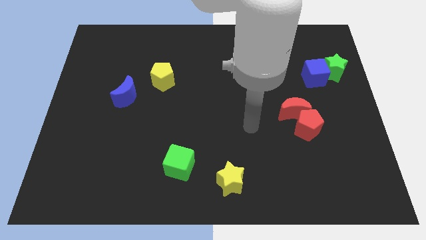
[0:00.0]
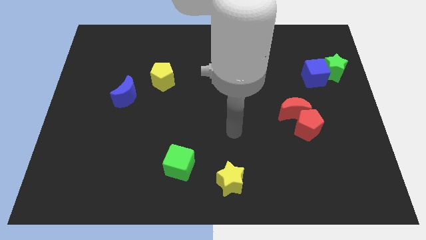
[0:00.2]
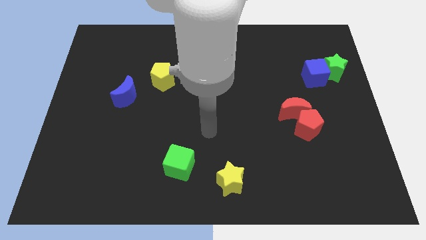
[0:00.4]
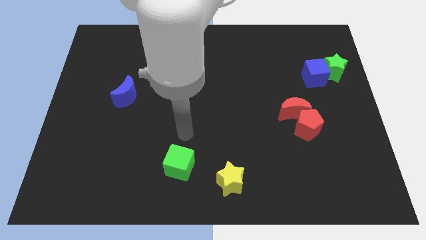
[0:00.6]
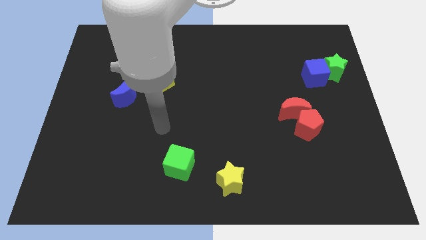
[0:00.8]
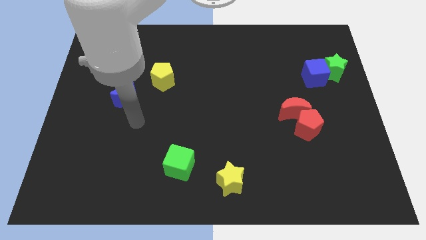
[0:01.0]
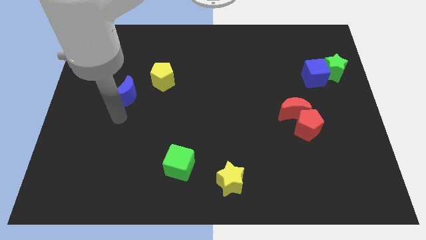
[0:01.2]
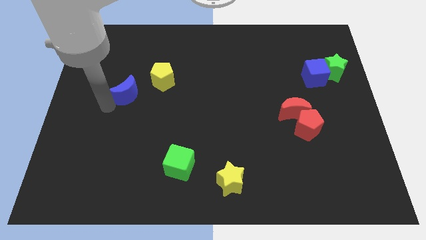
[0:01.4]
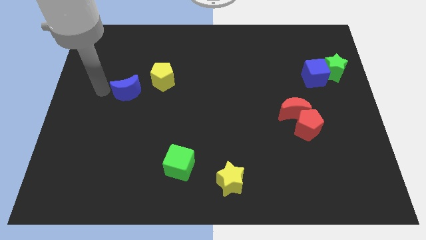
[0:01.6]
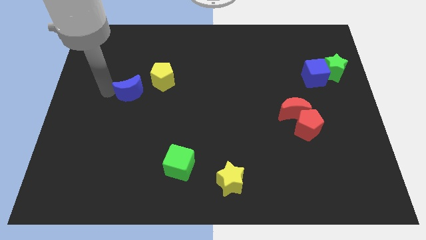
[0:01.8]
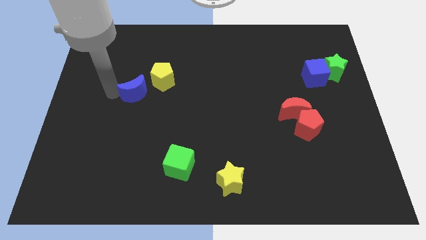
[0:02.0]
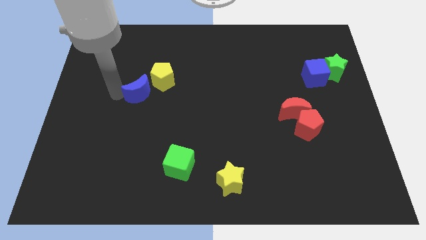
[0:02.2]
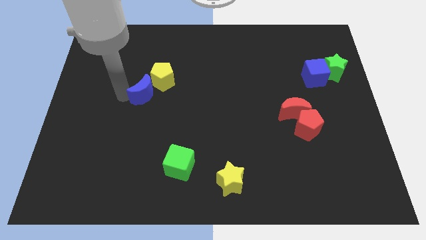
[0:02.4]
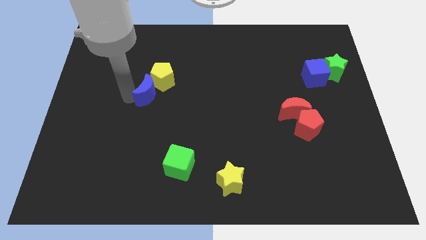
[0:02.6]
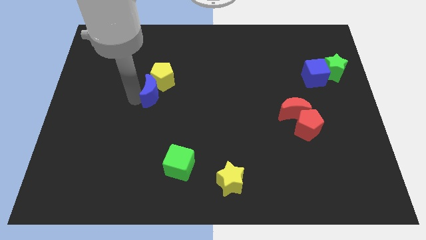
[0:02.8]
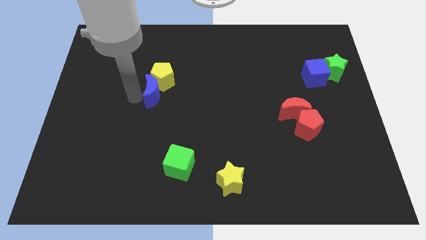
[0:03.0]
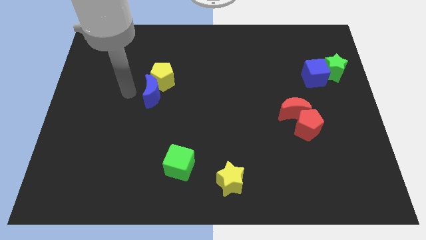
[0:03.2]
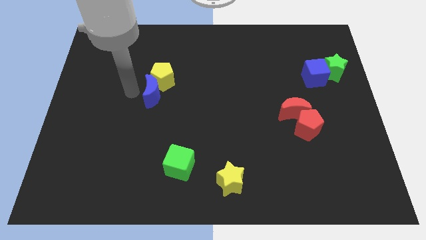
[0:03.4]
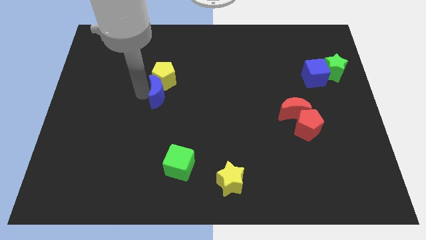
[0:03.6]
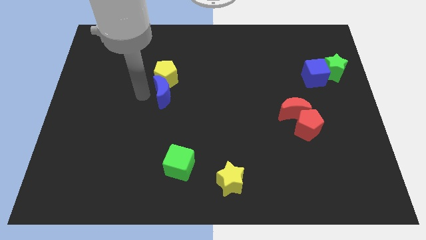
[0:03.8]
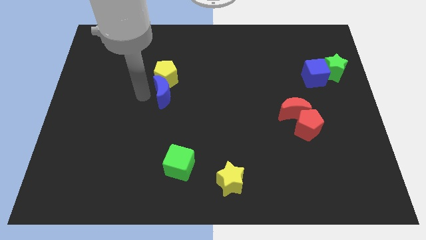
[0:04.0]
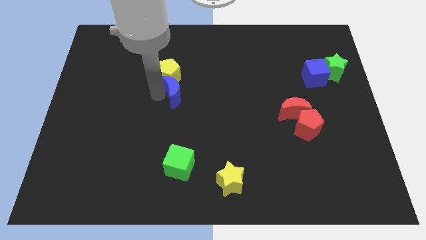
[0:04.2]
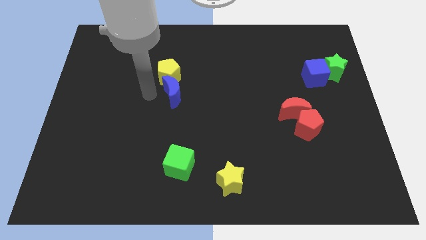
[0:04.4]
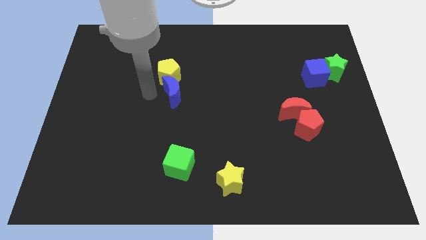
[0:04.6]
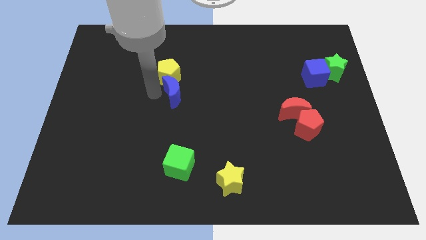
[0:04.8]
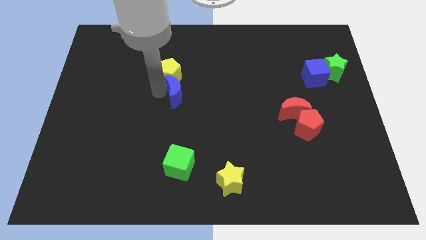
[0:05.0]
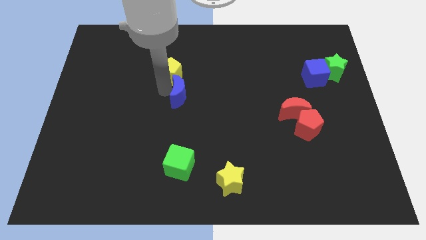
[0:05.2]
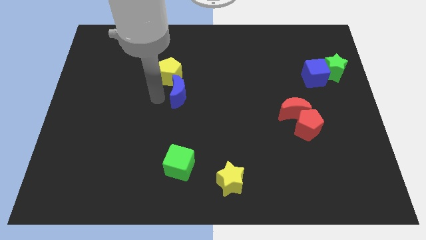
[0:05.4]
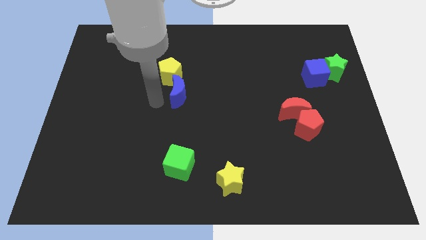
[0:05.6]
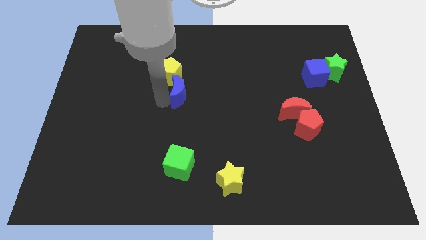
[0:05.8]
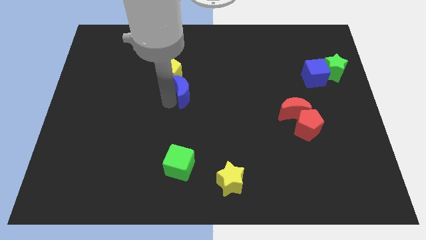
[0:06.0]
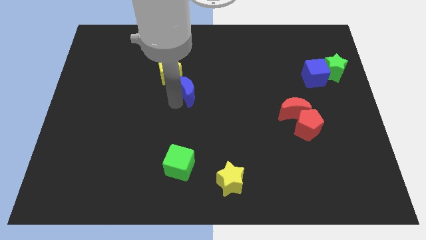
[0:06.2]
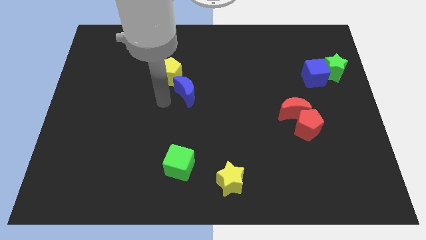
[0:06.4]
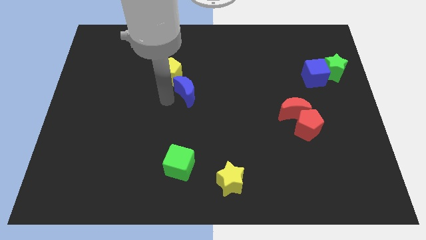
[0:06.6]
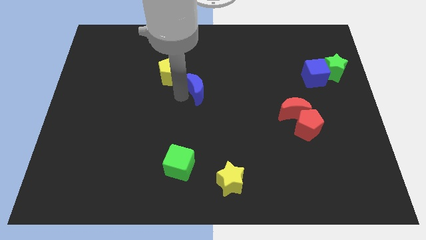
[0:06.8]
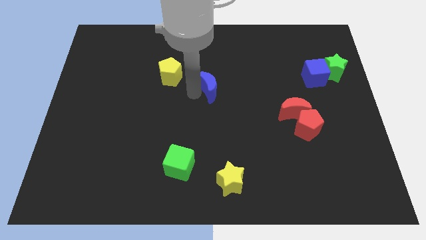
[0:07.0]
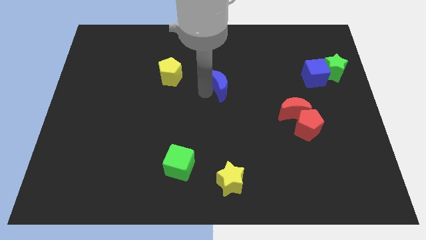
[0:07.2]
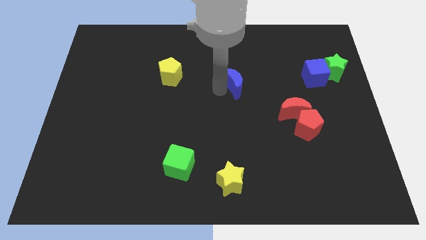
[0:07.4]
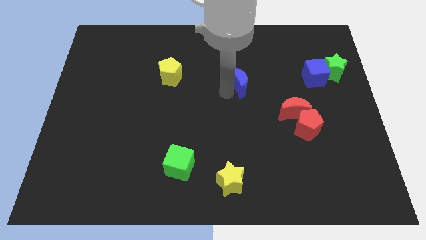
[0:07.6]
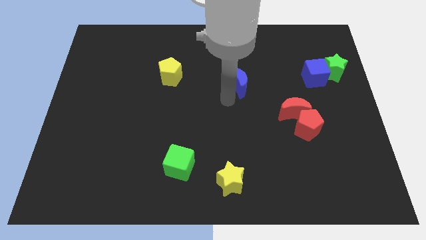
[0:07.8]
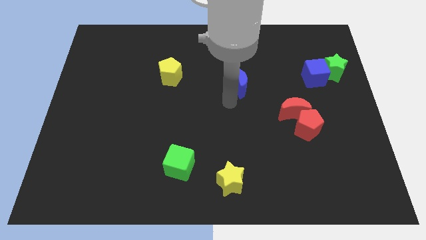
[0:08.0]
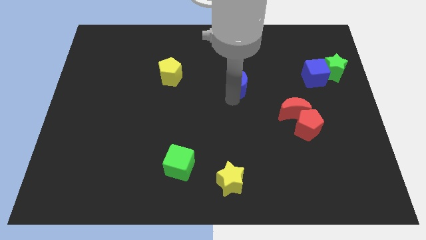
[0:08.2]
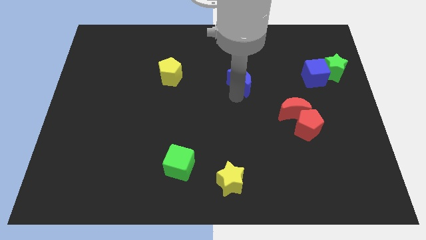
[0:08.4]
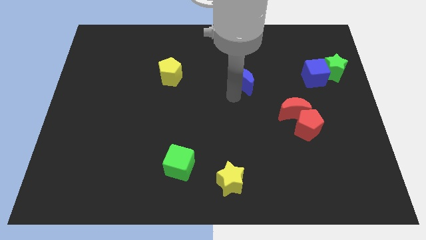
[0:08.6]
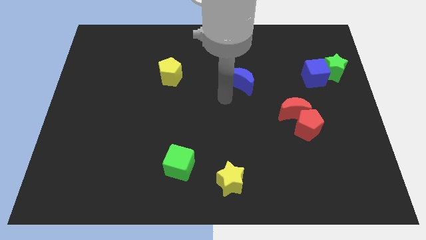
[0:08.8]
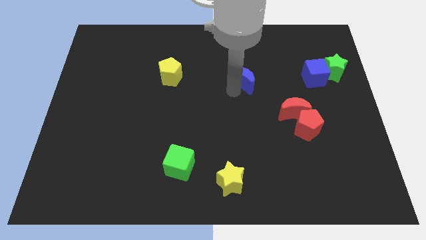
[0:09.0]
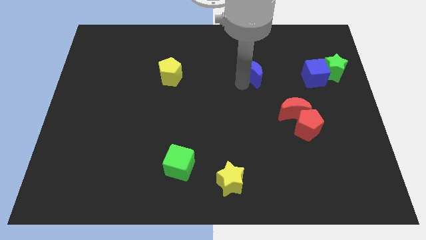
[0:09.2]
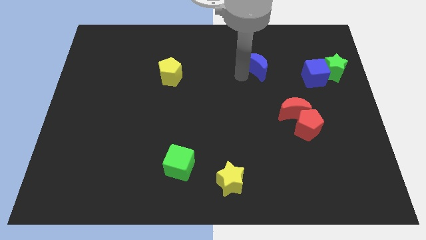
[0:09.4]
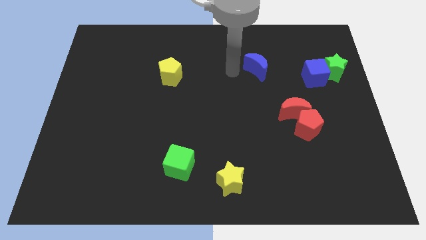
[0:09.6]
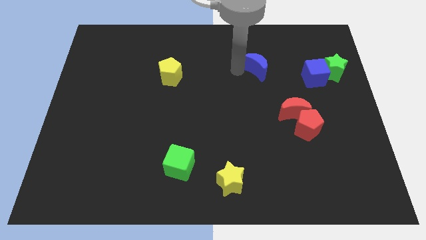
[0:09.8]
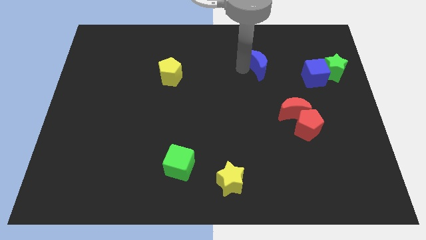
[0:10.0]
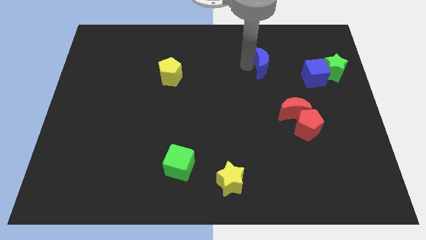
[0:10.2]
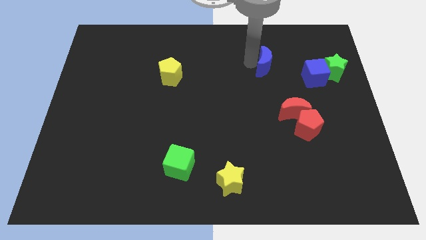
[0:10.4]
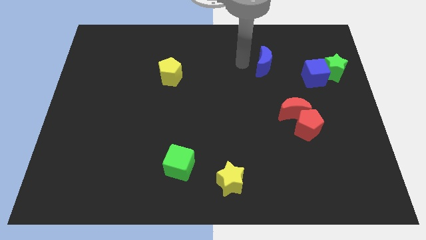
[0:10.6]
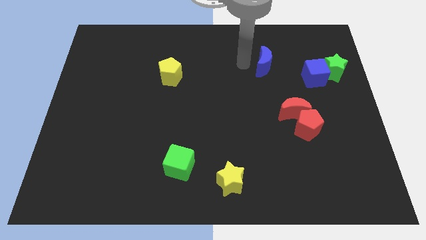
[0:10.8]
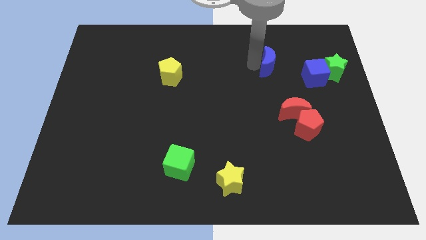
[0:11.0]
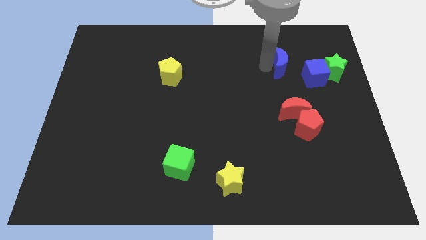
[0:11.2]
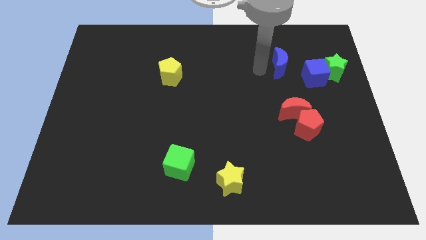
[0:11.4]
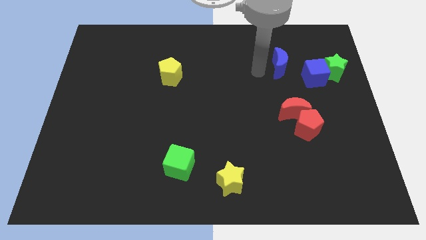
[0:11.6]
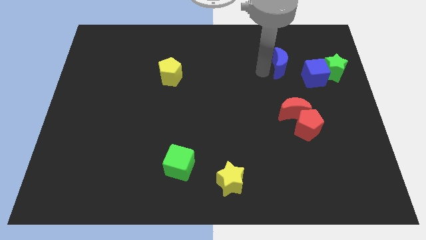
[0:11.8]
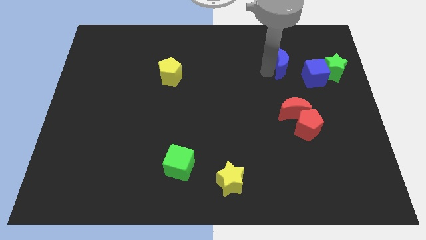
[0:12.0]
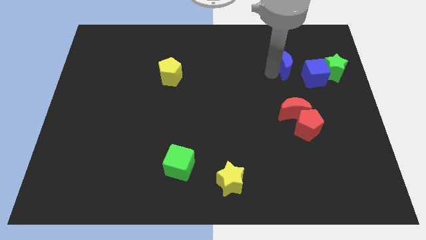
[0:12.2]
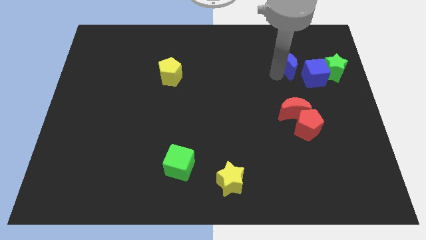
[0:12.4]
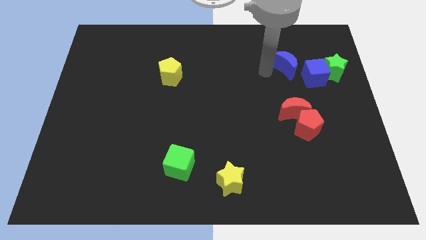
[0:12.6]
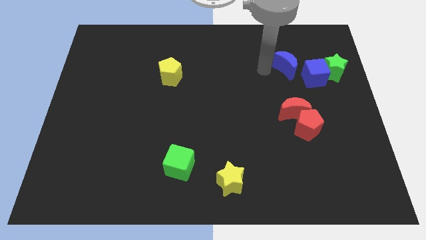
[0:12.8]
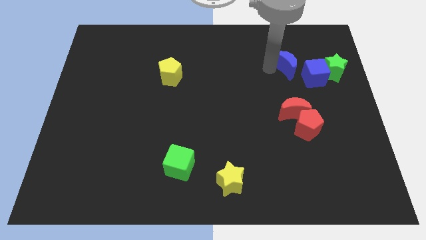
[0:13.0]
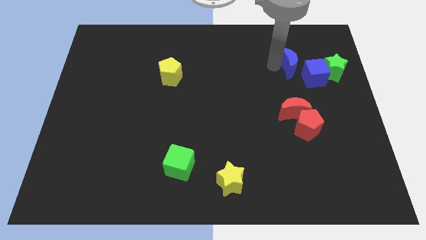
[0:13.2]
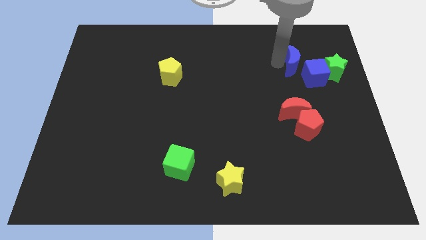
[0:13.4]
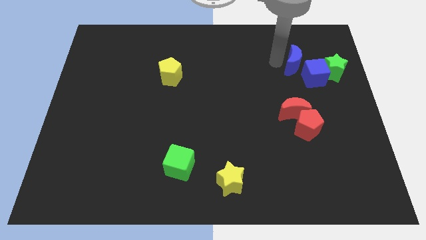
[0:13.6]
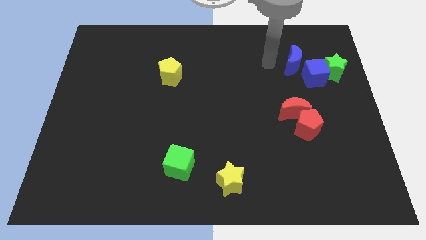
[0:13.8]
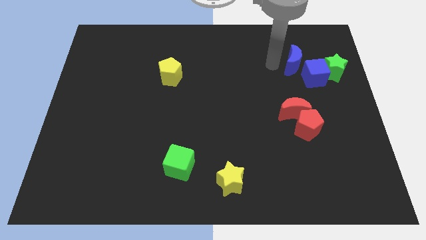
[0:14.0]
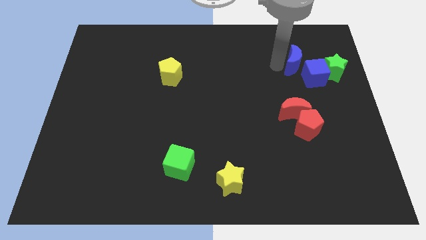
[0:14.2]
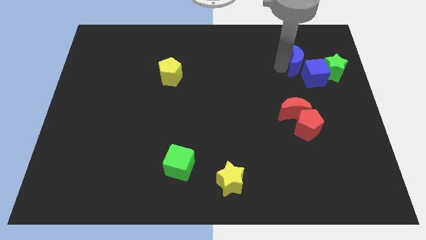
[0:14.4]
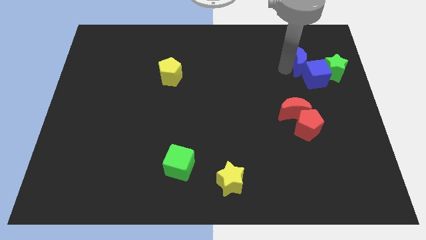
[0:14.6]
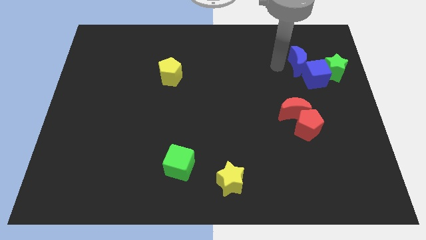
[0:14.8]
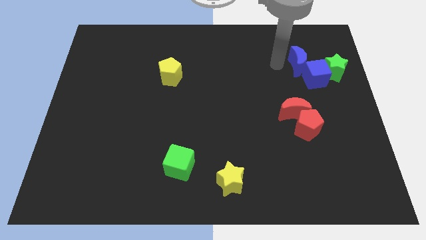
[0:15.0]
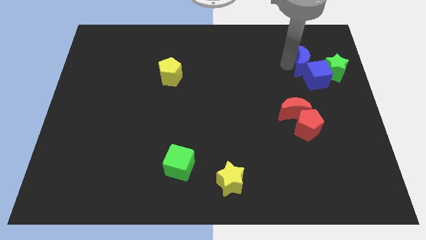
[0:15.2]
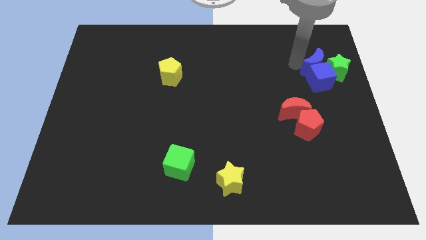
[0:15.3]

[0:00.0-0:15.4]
move the blue moon next to the green star
